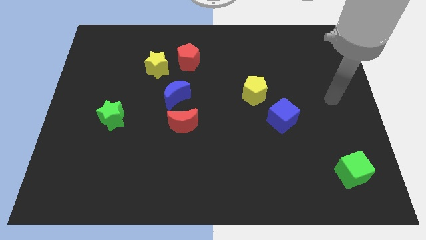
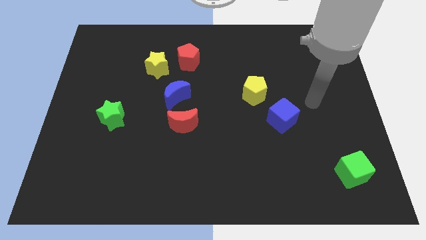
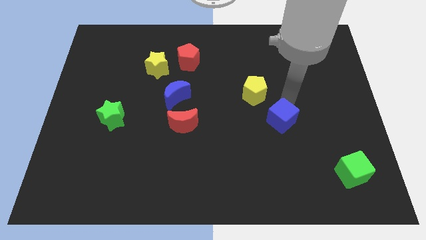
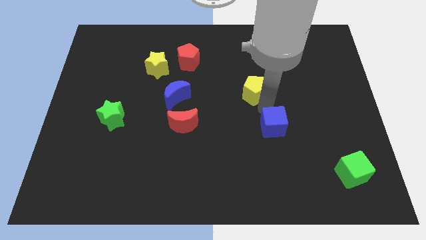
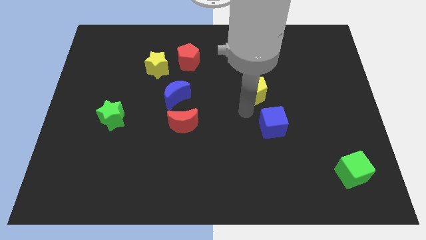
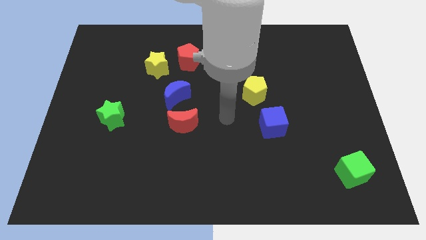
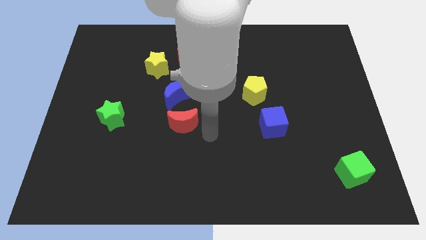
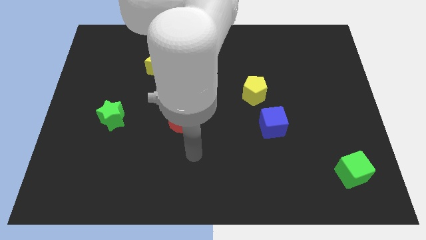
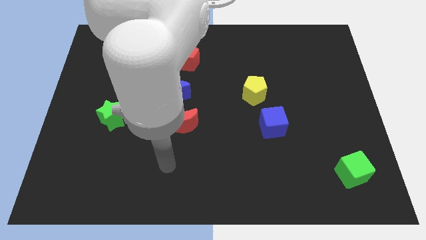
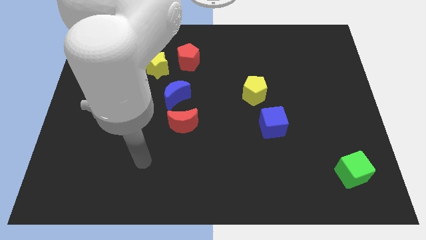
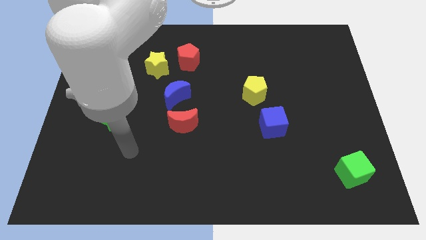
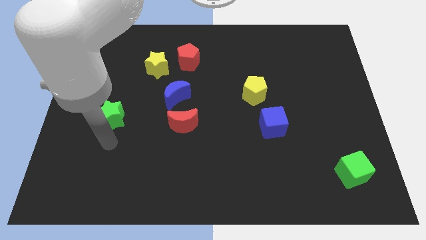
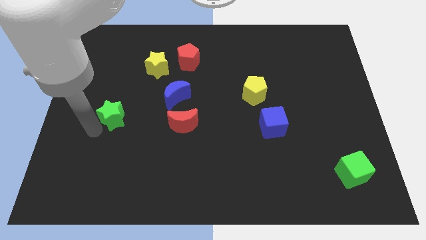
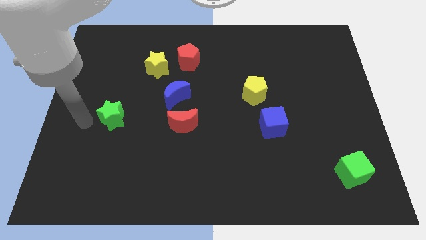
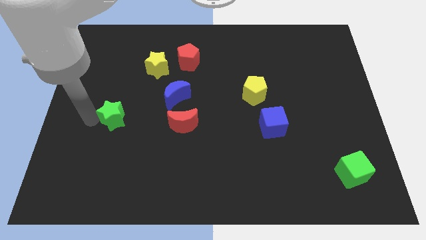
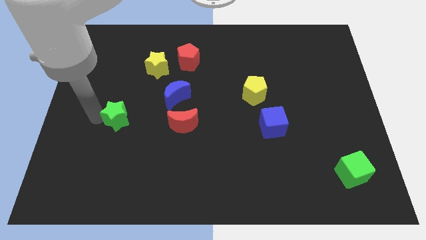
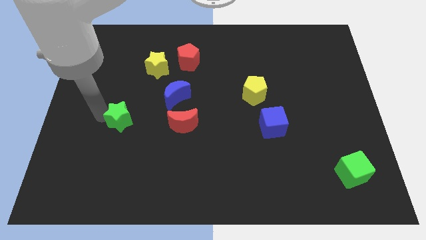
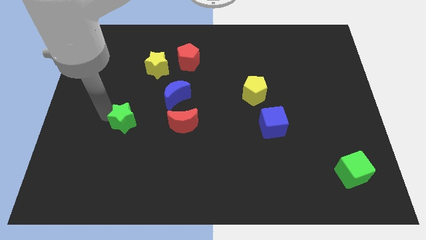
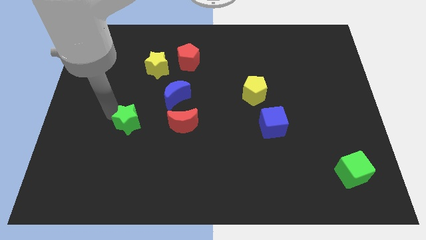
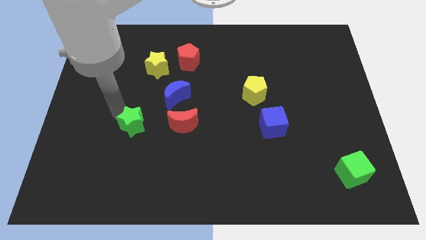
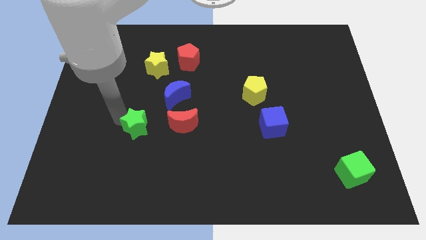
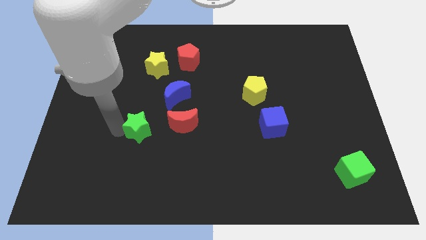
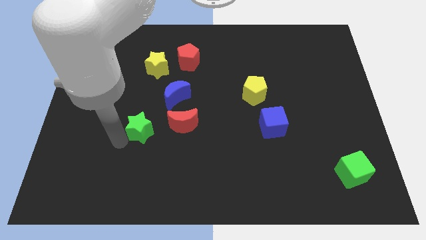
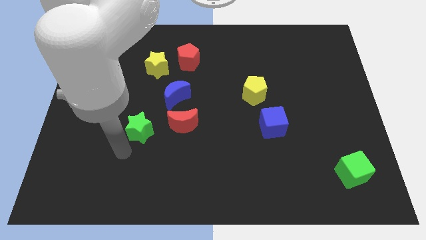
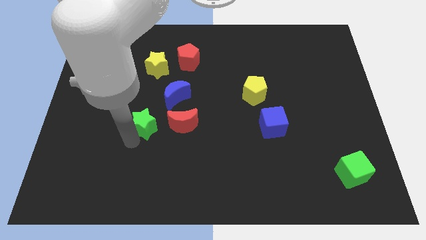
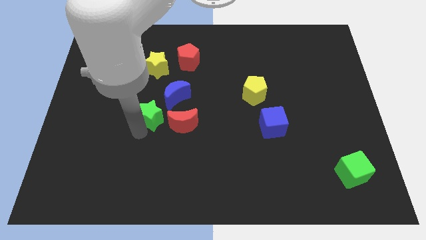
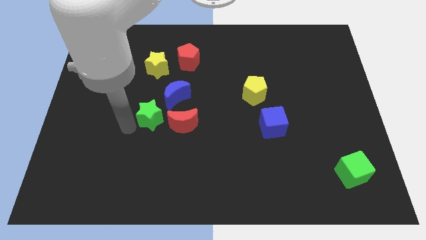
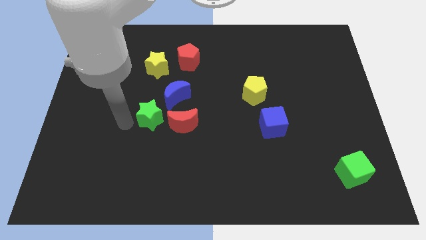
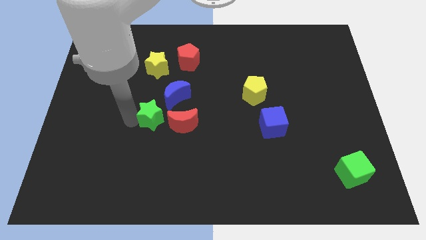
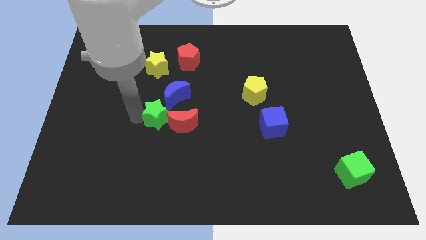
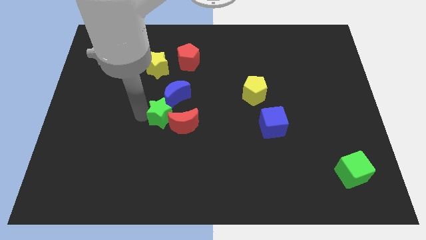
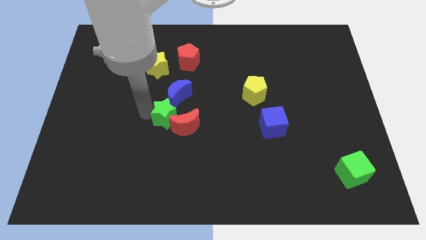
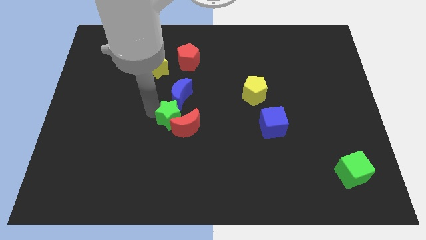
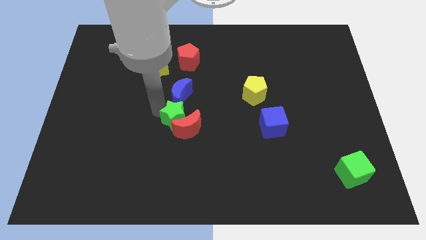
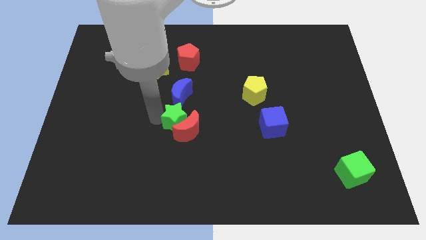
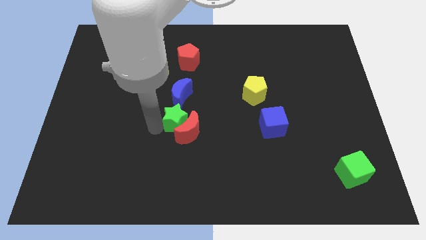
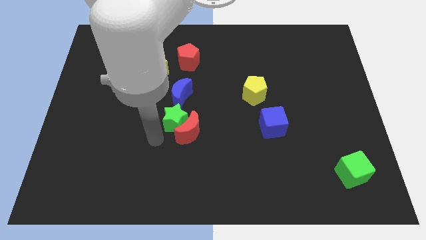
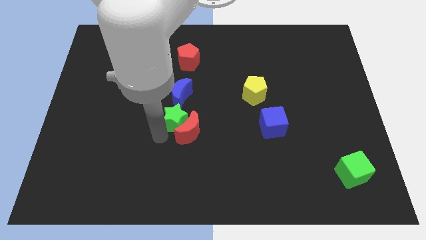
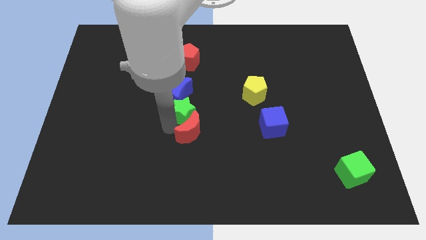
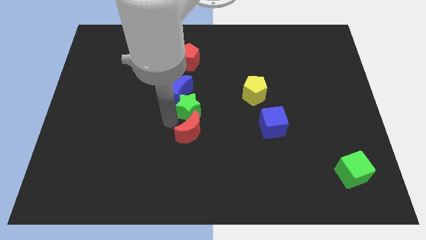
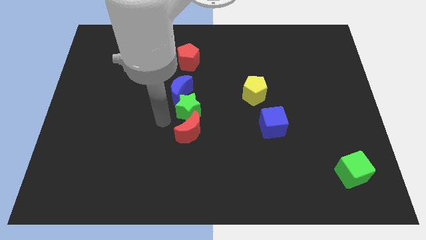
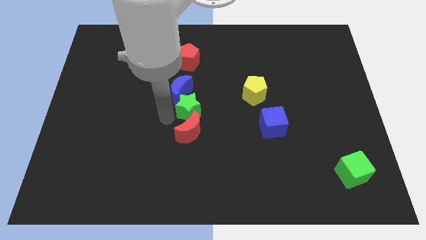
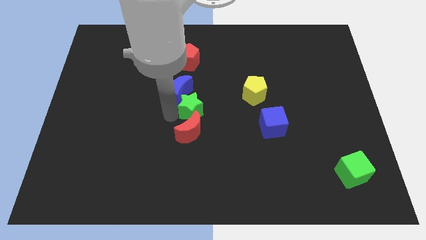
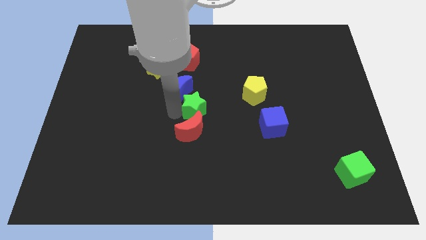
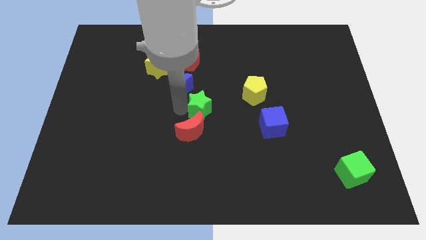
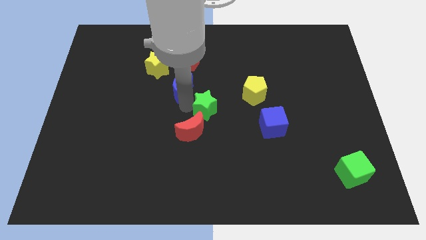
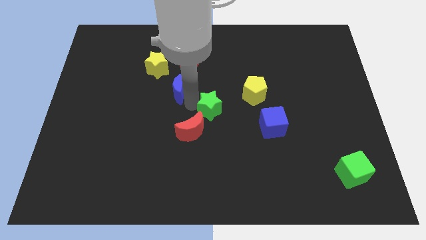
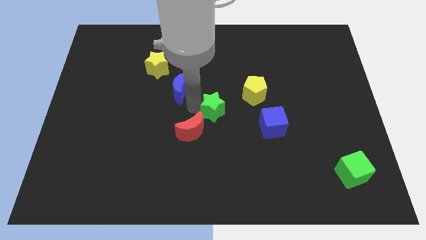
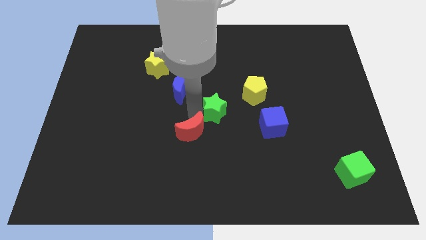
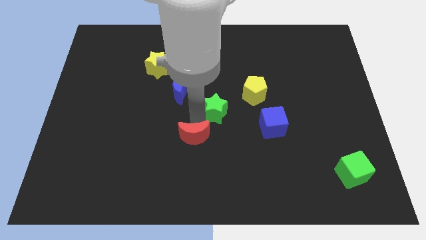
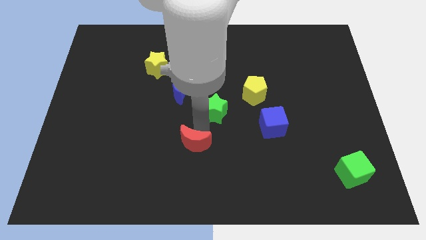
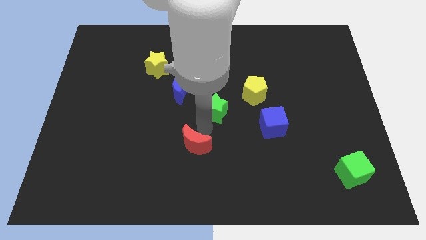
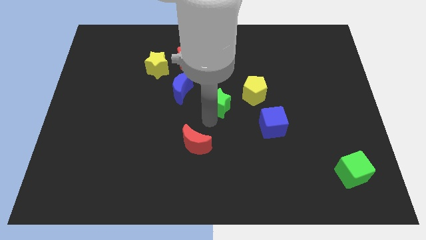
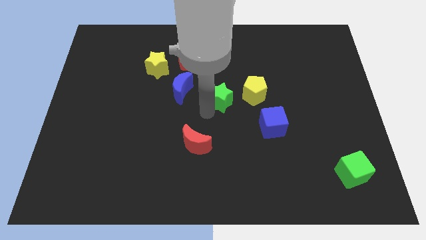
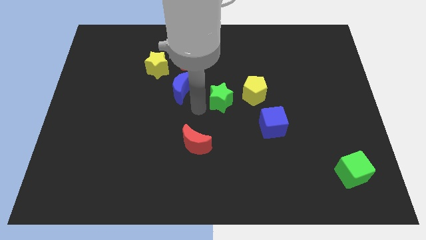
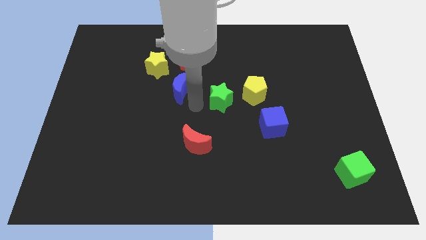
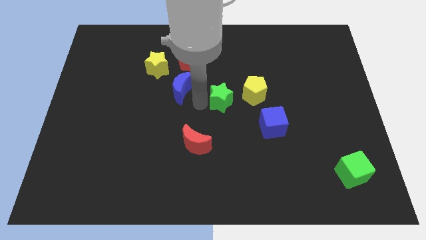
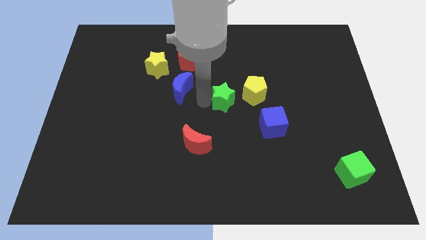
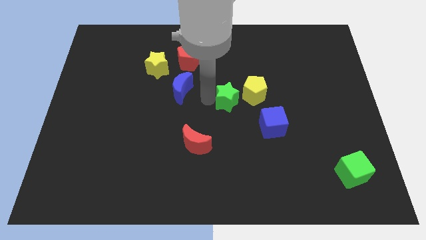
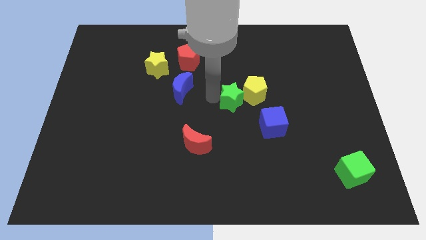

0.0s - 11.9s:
slide the green star next to the yellow pentagon
